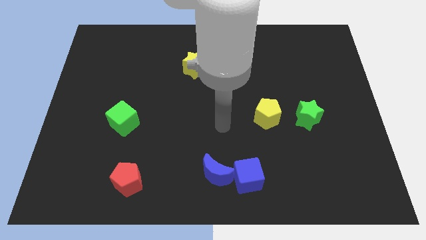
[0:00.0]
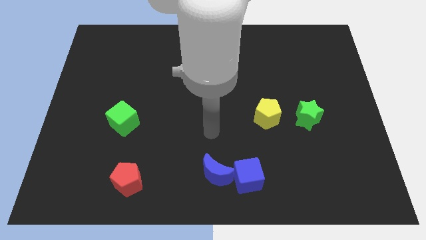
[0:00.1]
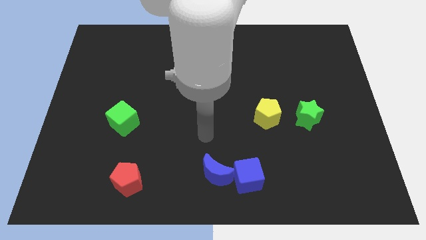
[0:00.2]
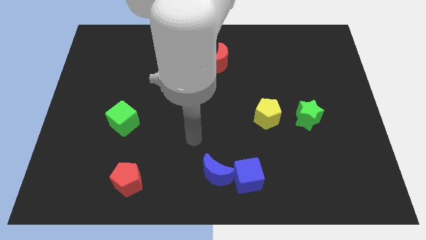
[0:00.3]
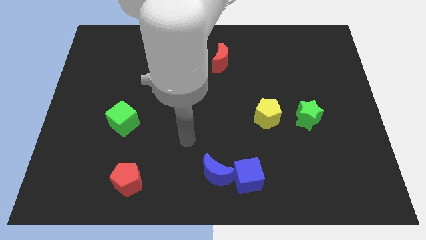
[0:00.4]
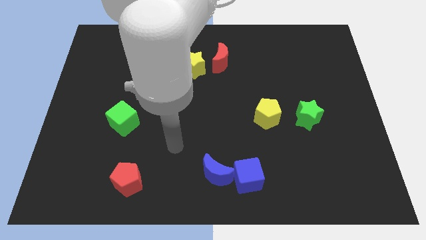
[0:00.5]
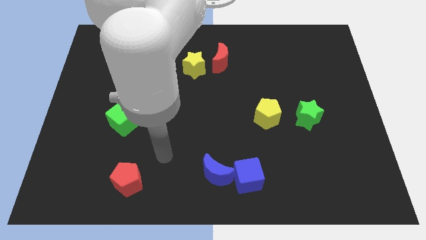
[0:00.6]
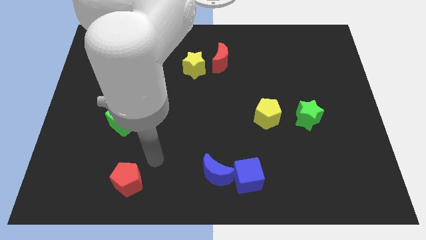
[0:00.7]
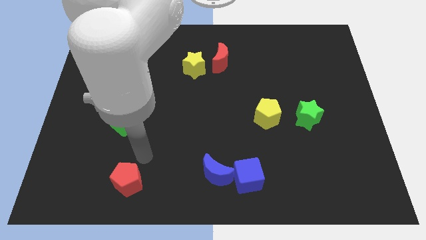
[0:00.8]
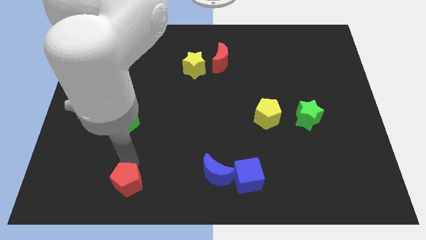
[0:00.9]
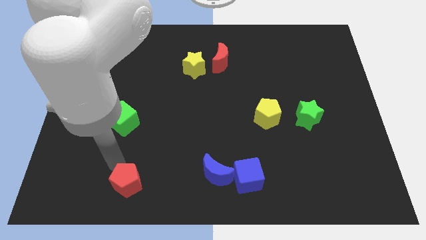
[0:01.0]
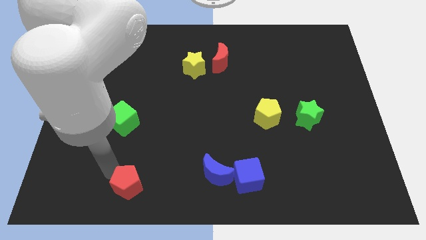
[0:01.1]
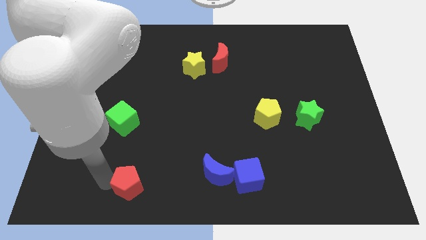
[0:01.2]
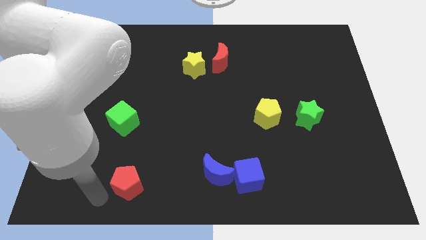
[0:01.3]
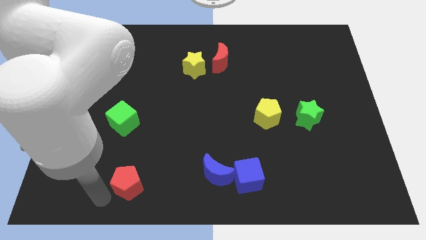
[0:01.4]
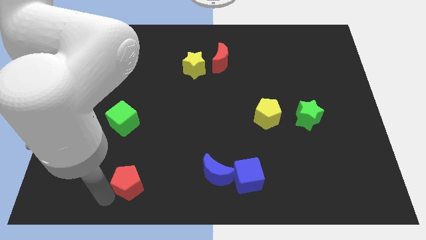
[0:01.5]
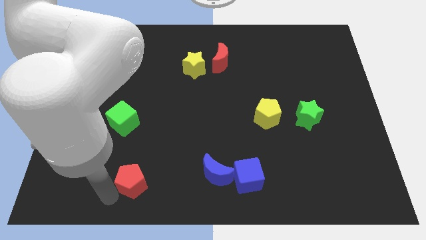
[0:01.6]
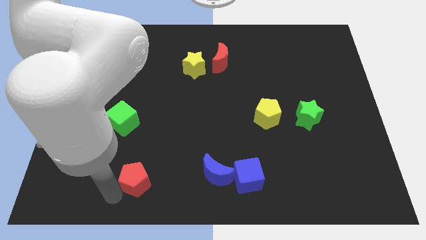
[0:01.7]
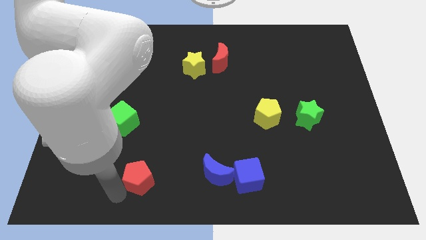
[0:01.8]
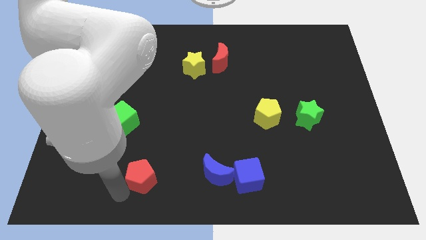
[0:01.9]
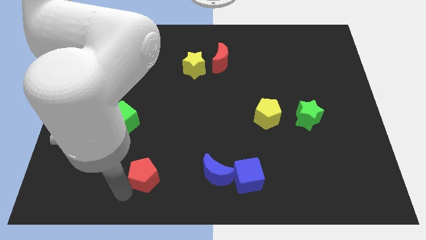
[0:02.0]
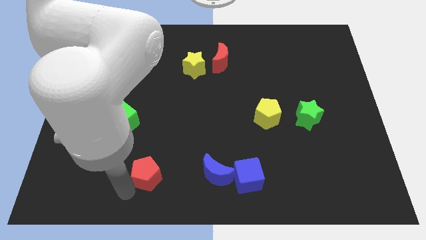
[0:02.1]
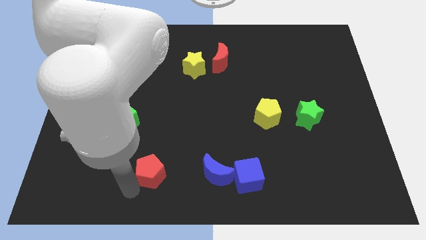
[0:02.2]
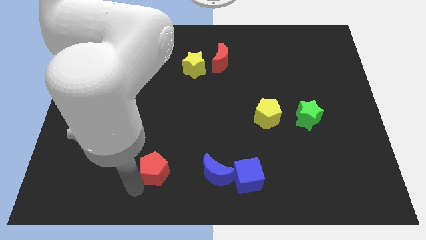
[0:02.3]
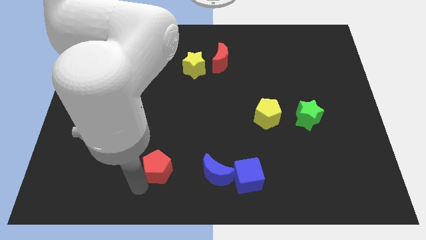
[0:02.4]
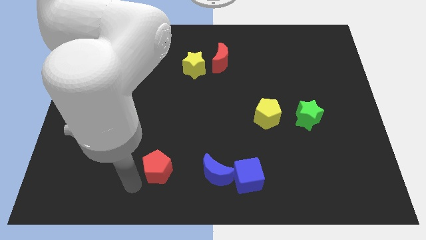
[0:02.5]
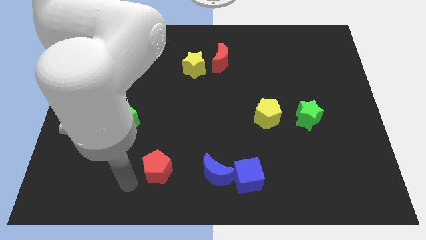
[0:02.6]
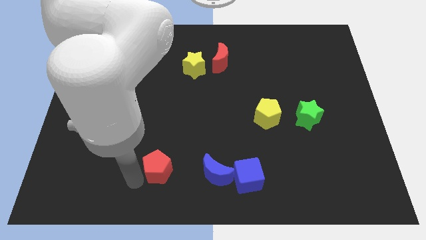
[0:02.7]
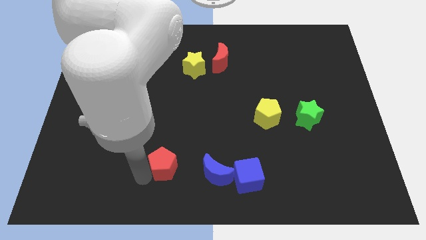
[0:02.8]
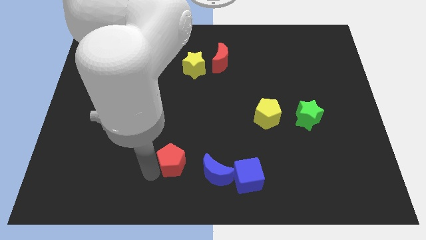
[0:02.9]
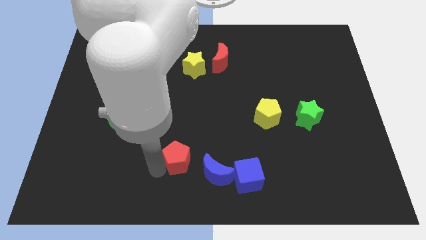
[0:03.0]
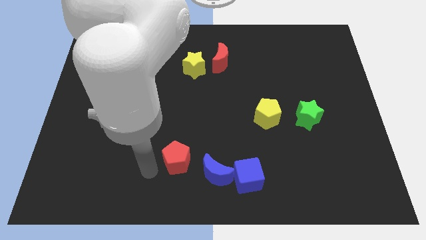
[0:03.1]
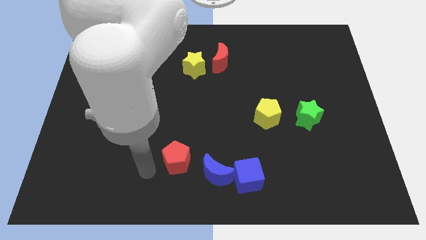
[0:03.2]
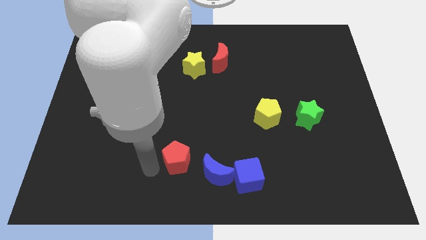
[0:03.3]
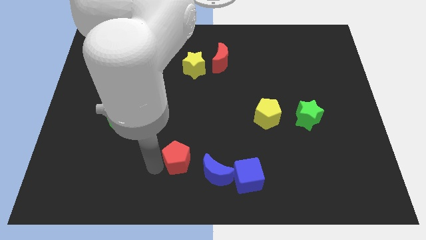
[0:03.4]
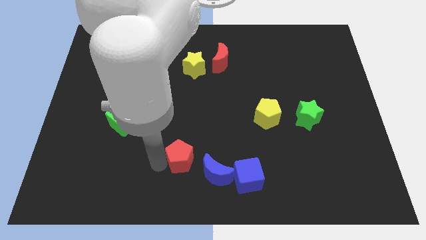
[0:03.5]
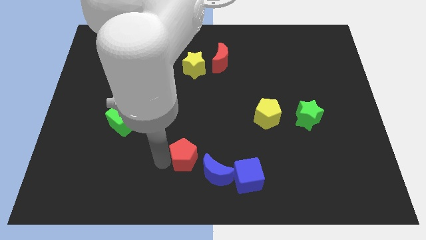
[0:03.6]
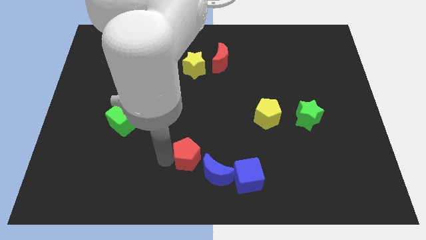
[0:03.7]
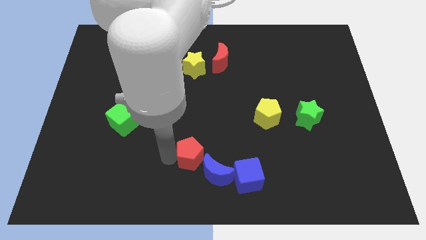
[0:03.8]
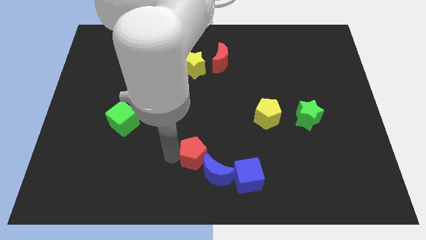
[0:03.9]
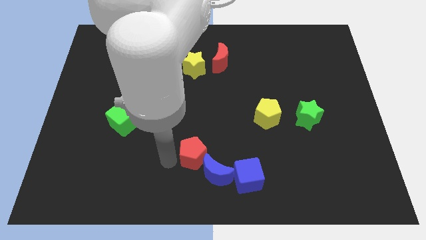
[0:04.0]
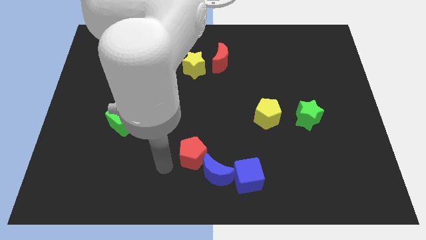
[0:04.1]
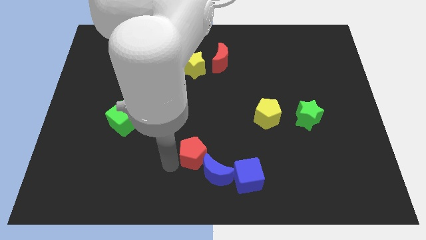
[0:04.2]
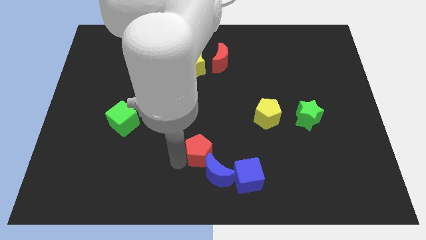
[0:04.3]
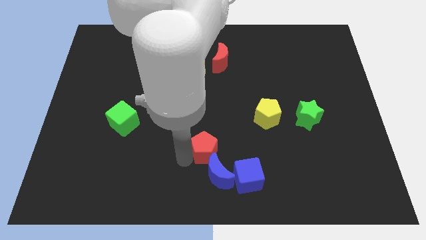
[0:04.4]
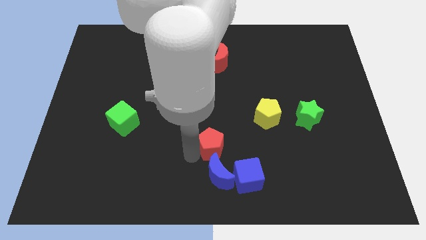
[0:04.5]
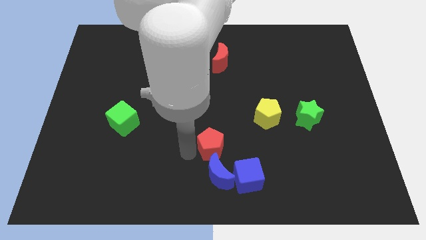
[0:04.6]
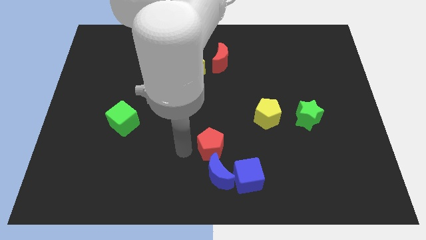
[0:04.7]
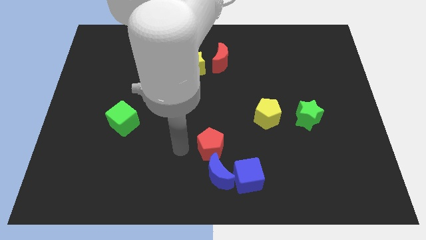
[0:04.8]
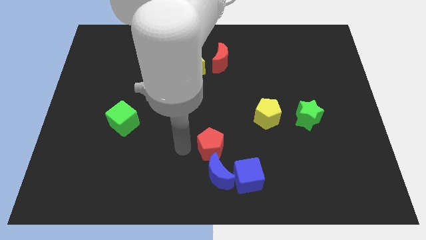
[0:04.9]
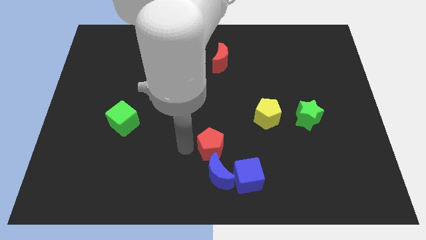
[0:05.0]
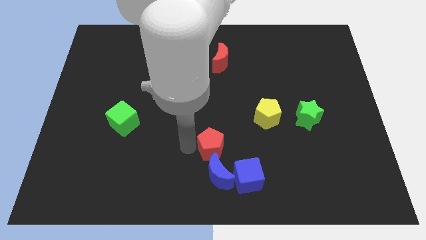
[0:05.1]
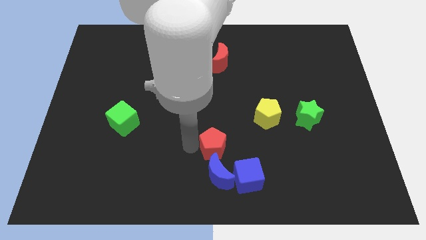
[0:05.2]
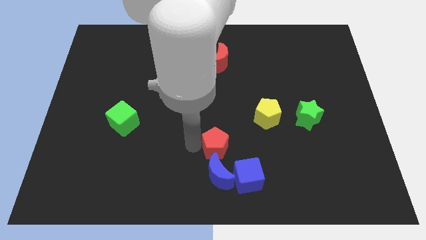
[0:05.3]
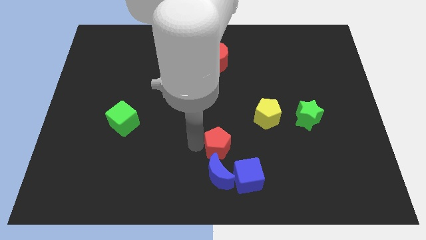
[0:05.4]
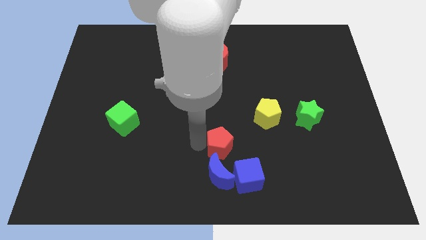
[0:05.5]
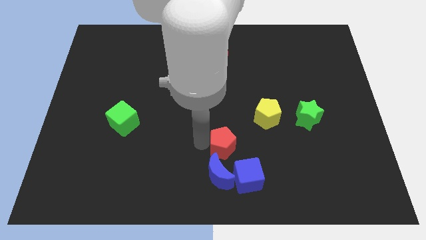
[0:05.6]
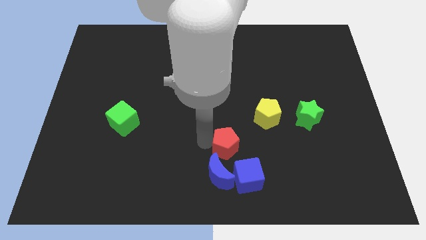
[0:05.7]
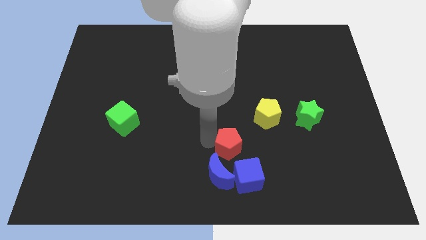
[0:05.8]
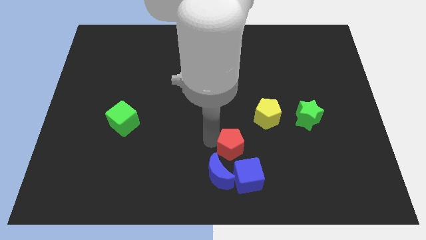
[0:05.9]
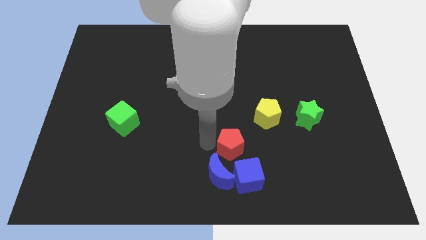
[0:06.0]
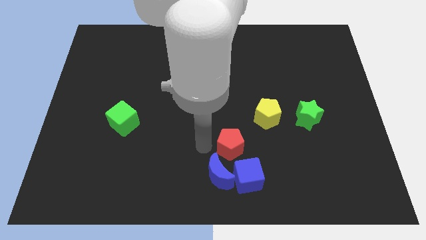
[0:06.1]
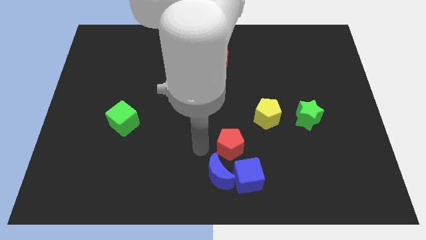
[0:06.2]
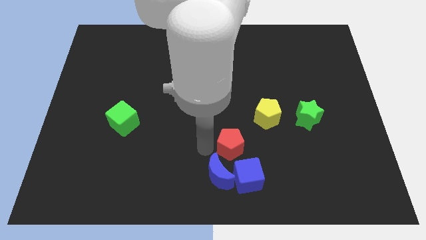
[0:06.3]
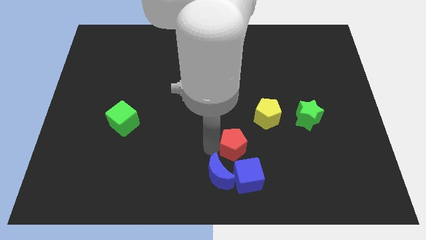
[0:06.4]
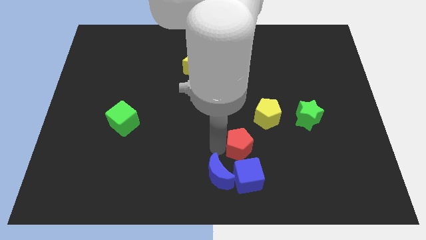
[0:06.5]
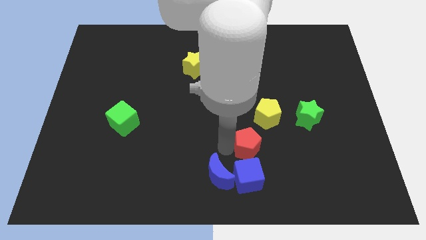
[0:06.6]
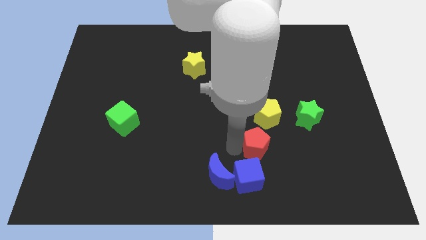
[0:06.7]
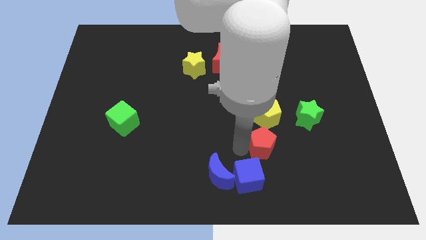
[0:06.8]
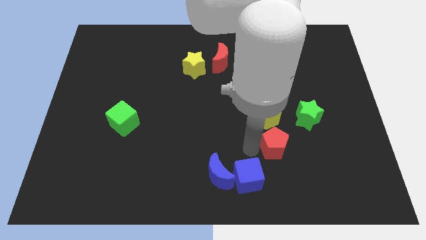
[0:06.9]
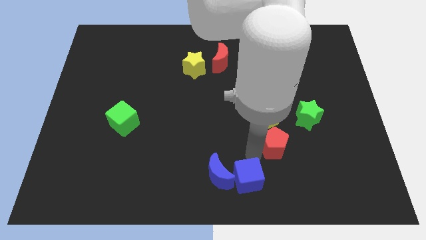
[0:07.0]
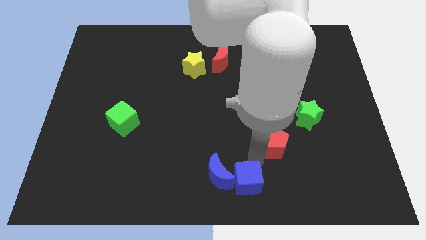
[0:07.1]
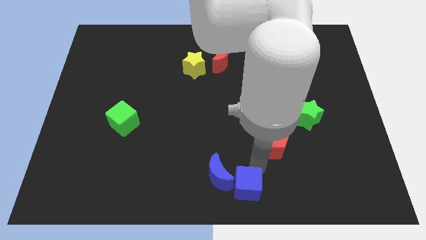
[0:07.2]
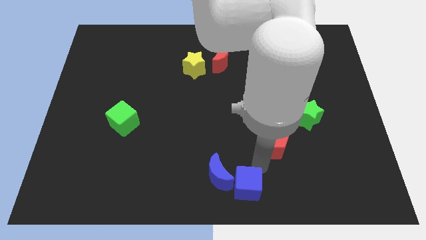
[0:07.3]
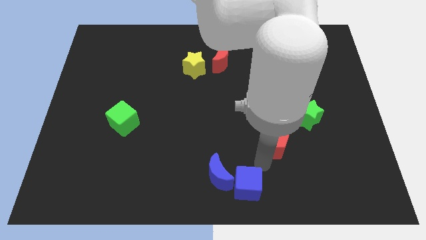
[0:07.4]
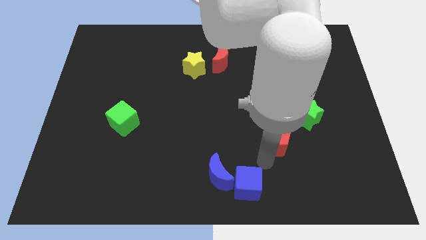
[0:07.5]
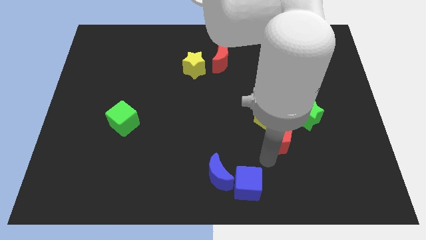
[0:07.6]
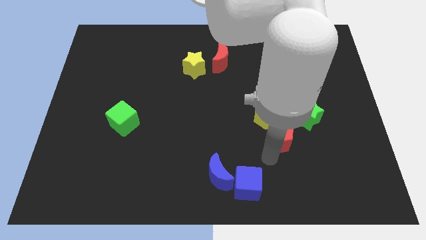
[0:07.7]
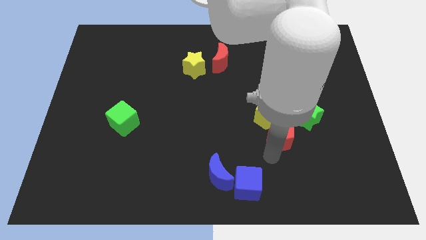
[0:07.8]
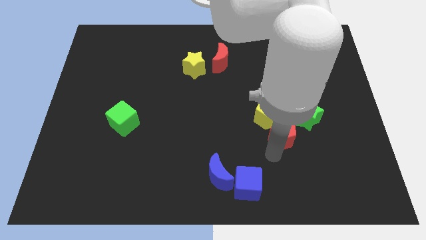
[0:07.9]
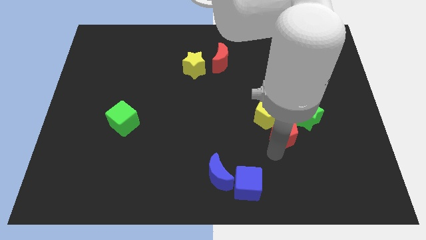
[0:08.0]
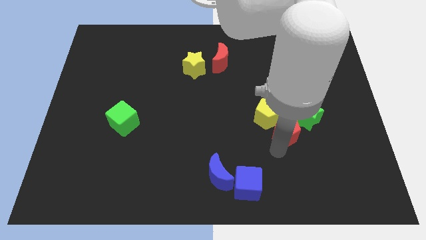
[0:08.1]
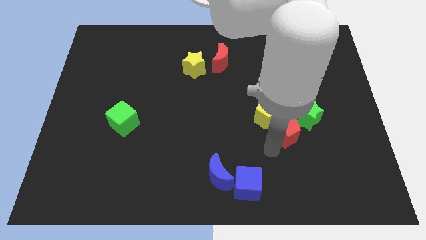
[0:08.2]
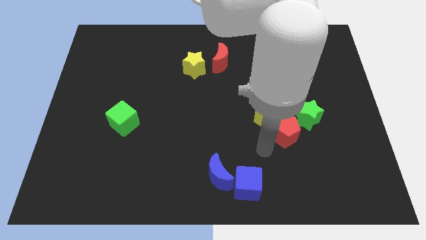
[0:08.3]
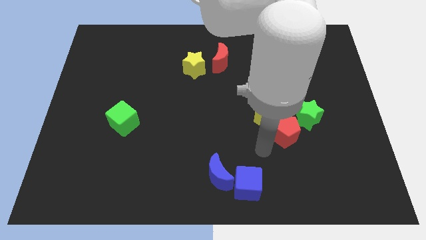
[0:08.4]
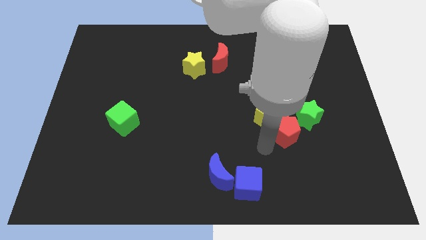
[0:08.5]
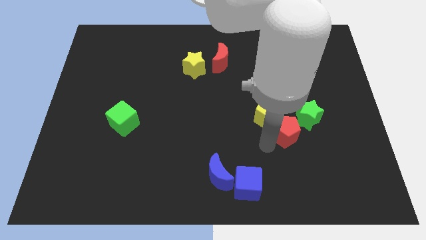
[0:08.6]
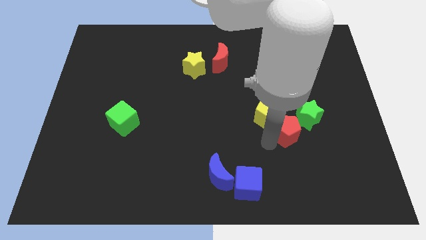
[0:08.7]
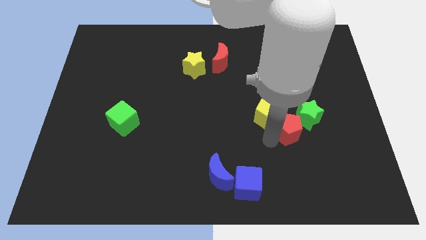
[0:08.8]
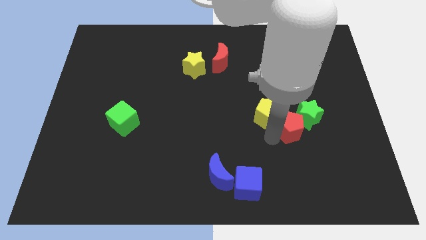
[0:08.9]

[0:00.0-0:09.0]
move the red pentagon next to the green star
